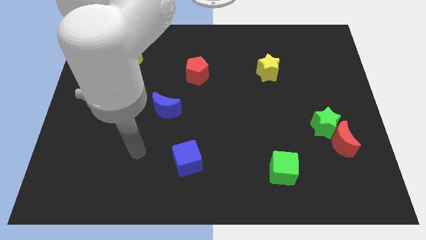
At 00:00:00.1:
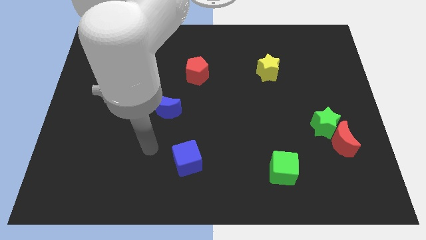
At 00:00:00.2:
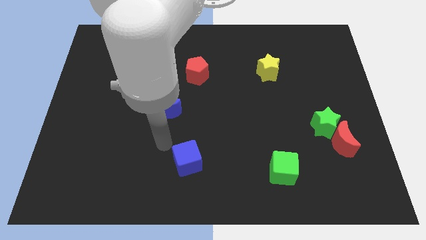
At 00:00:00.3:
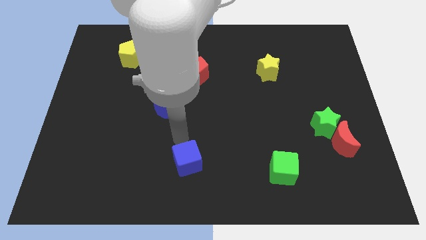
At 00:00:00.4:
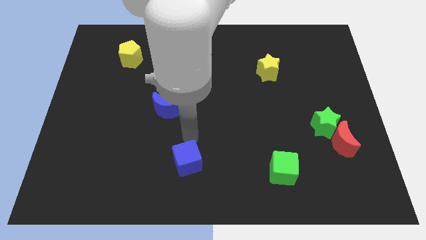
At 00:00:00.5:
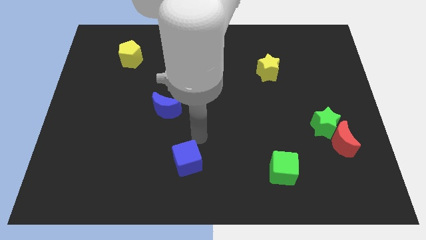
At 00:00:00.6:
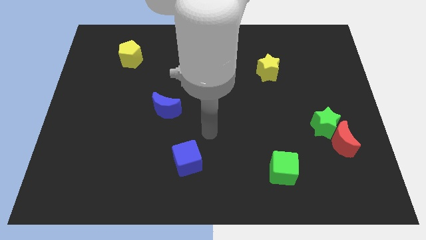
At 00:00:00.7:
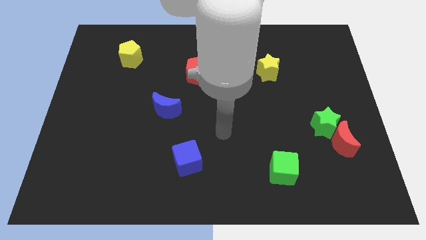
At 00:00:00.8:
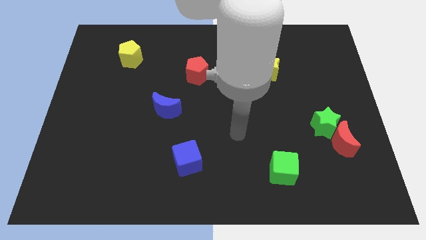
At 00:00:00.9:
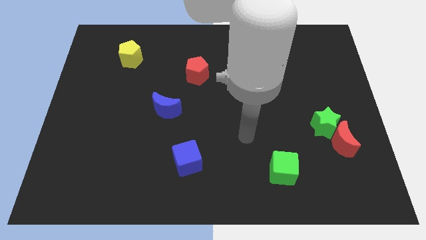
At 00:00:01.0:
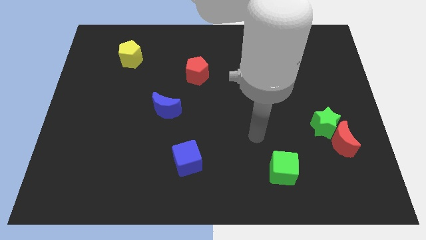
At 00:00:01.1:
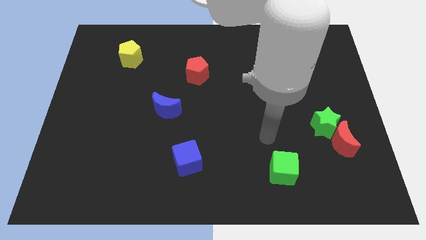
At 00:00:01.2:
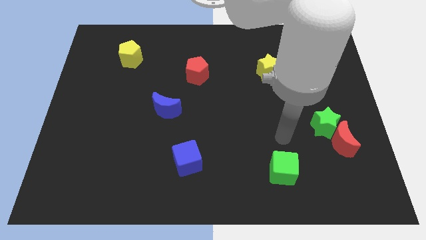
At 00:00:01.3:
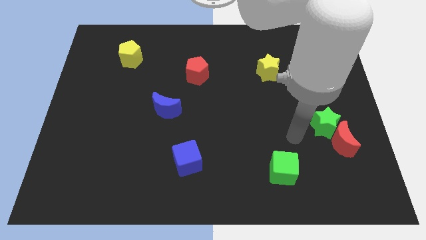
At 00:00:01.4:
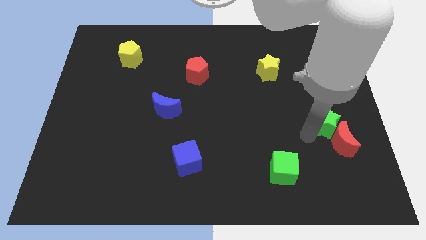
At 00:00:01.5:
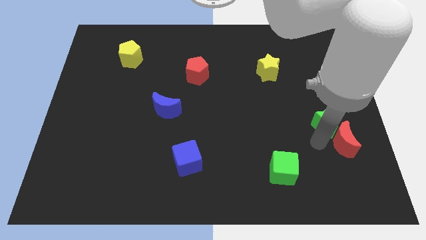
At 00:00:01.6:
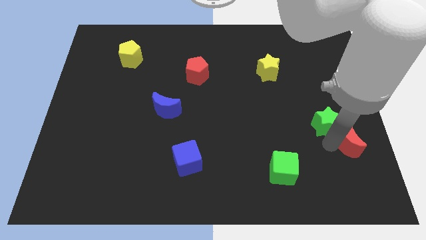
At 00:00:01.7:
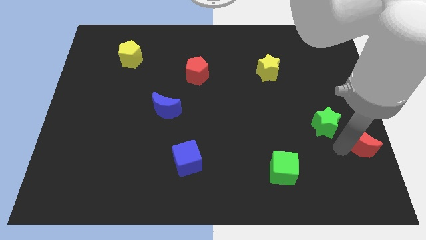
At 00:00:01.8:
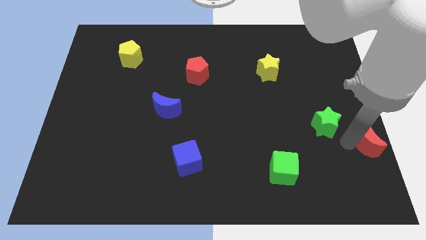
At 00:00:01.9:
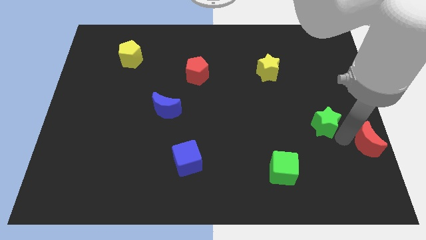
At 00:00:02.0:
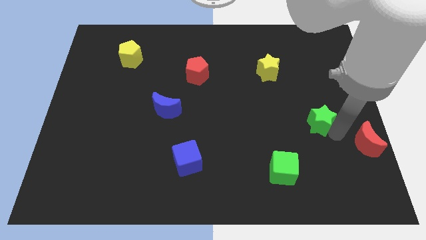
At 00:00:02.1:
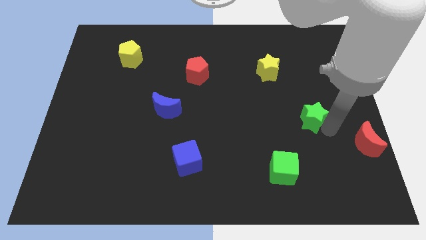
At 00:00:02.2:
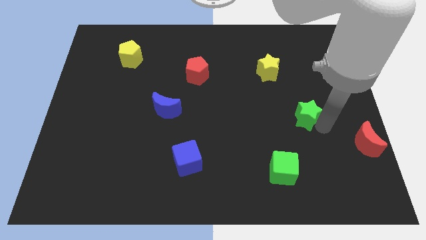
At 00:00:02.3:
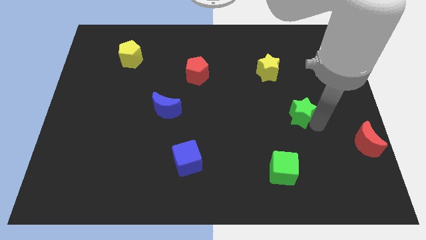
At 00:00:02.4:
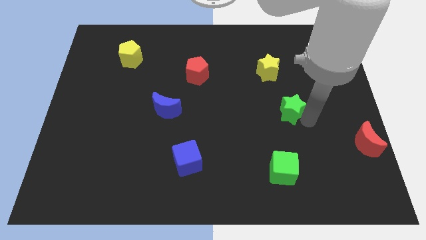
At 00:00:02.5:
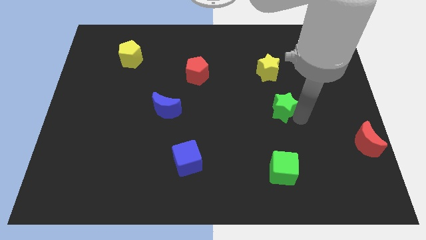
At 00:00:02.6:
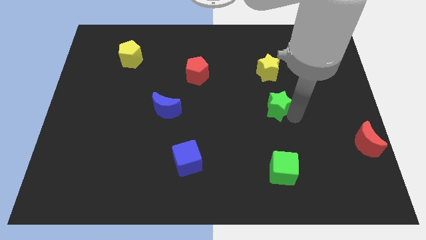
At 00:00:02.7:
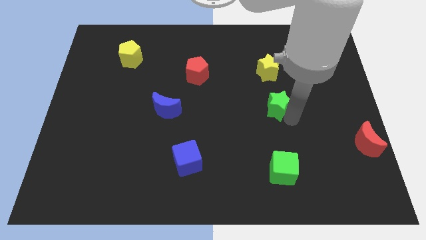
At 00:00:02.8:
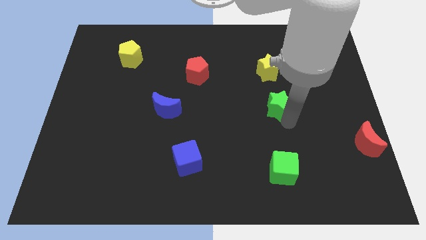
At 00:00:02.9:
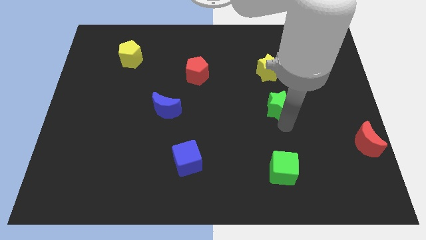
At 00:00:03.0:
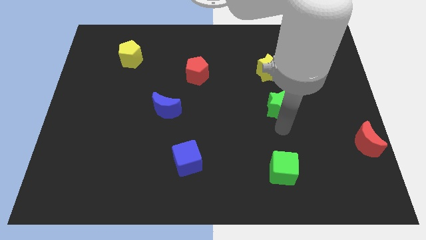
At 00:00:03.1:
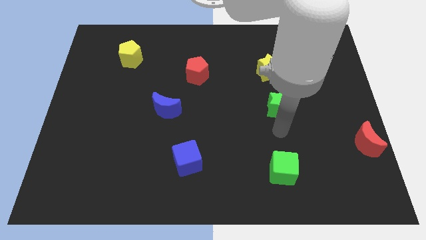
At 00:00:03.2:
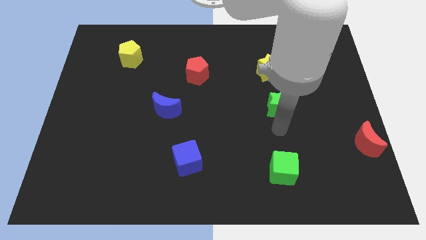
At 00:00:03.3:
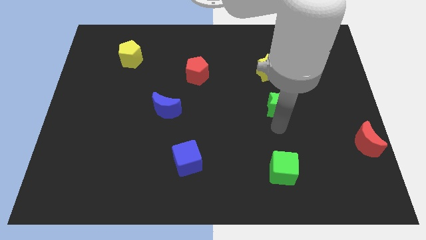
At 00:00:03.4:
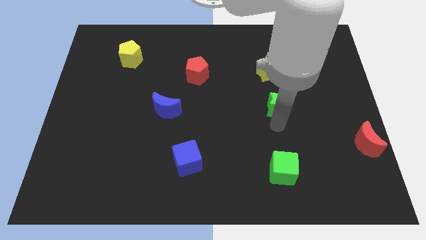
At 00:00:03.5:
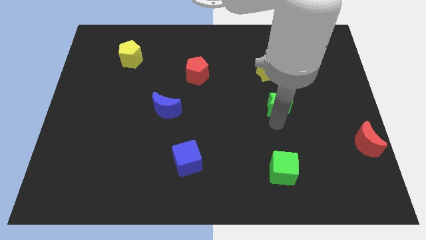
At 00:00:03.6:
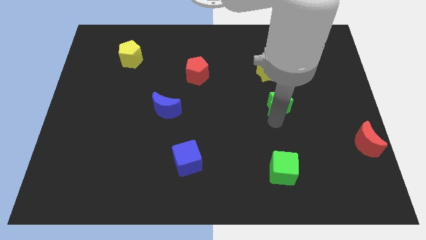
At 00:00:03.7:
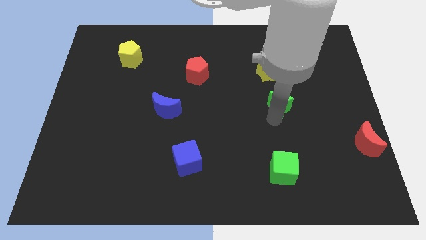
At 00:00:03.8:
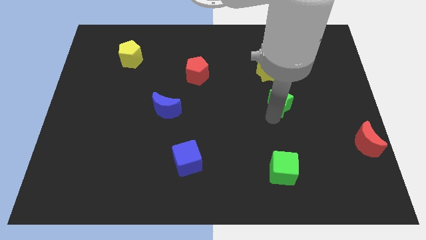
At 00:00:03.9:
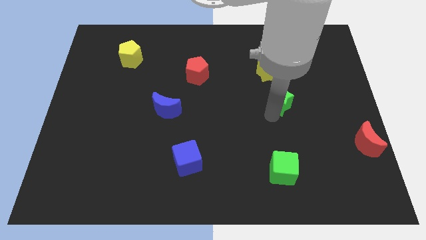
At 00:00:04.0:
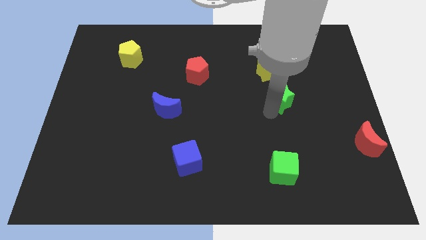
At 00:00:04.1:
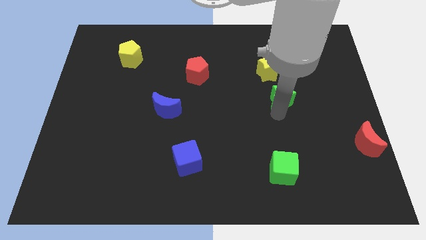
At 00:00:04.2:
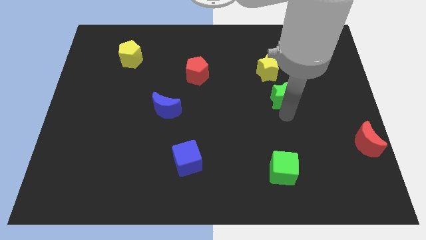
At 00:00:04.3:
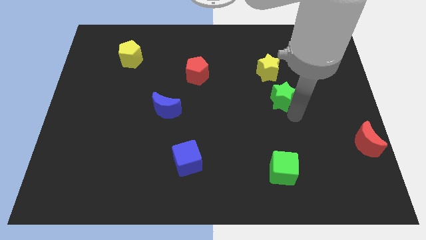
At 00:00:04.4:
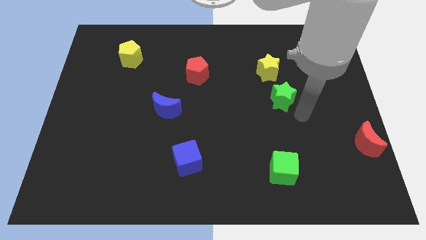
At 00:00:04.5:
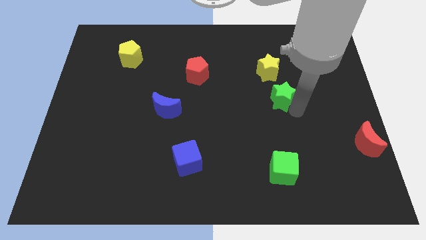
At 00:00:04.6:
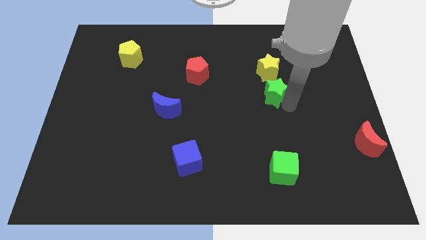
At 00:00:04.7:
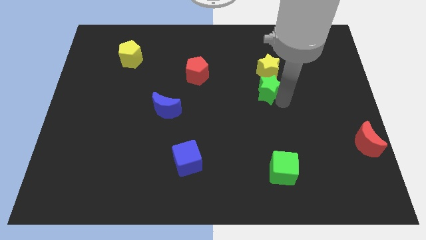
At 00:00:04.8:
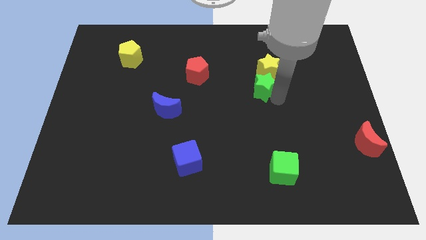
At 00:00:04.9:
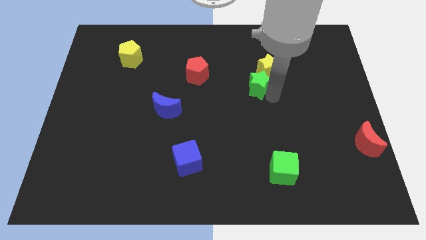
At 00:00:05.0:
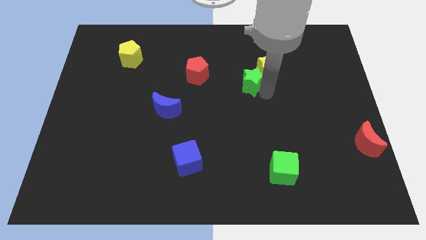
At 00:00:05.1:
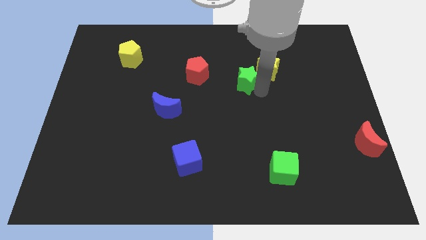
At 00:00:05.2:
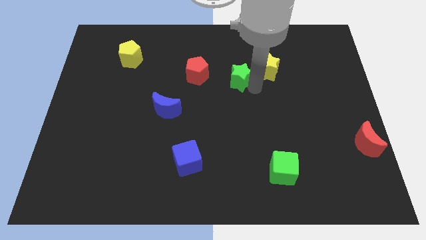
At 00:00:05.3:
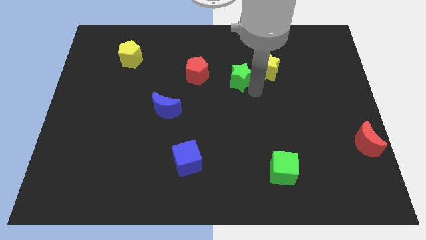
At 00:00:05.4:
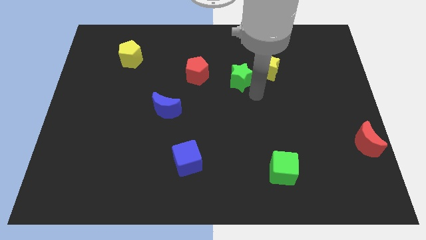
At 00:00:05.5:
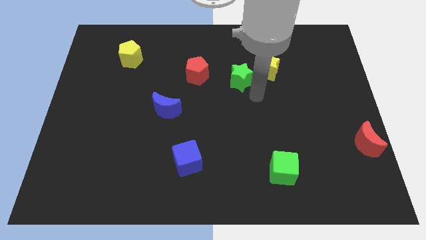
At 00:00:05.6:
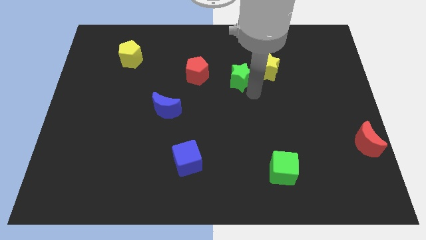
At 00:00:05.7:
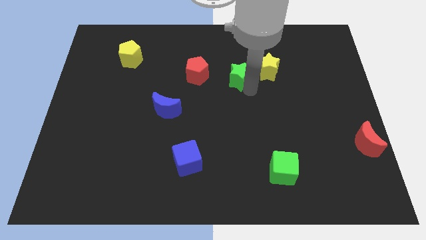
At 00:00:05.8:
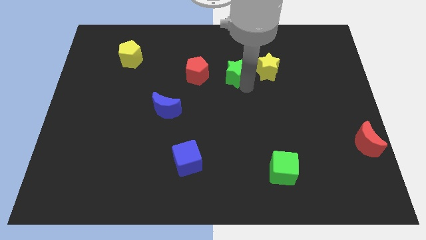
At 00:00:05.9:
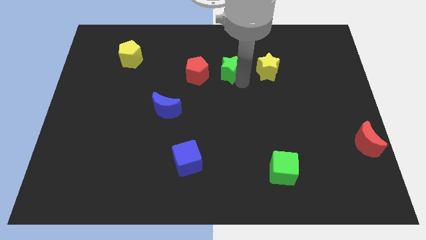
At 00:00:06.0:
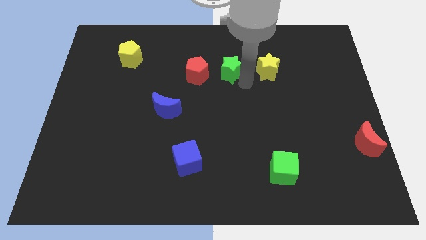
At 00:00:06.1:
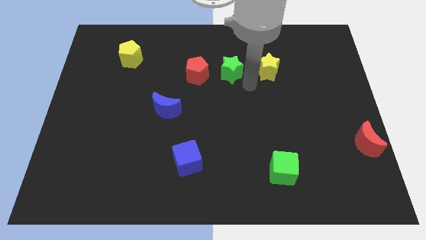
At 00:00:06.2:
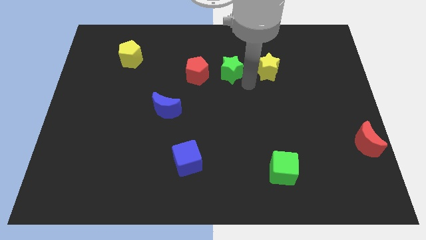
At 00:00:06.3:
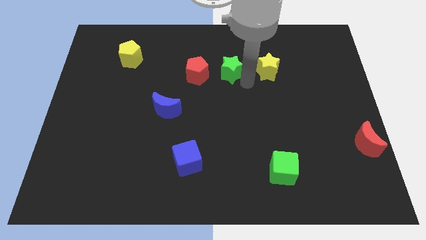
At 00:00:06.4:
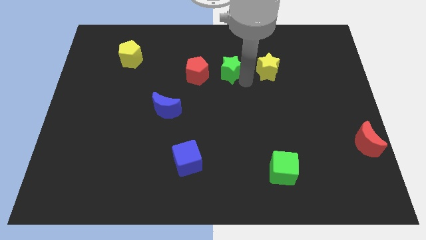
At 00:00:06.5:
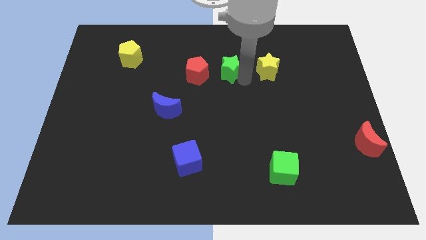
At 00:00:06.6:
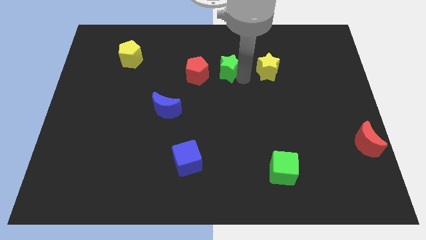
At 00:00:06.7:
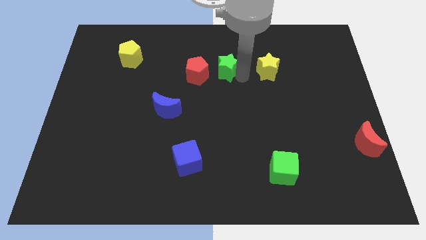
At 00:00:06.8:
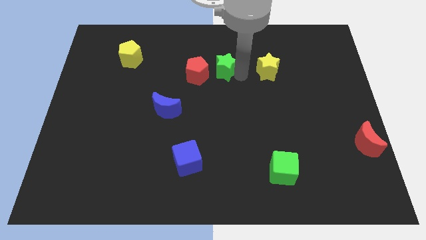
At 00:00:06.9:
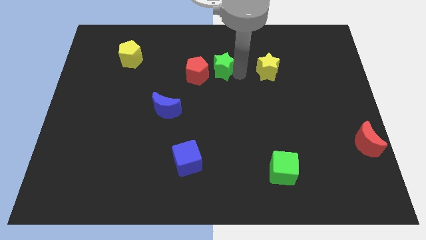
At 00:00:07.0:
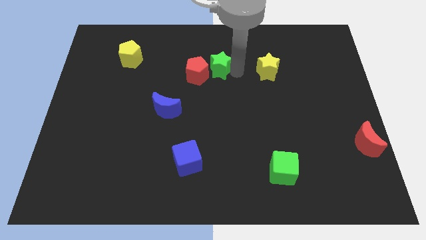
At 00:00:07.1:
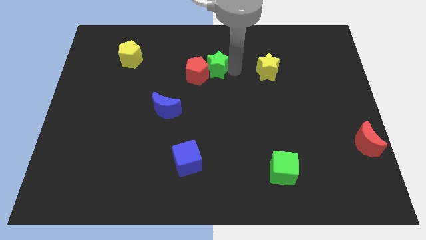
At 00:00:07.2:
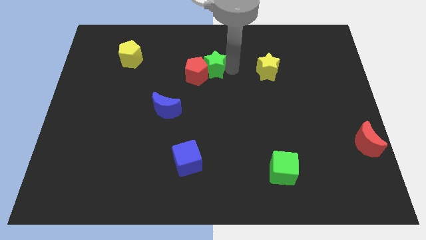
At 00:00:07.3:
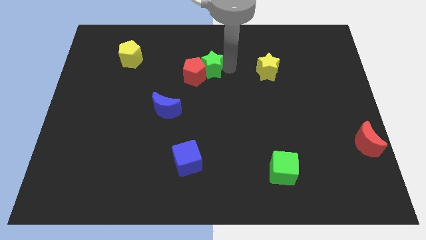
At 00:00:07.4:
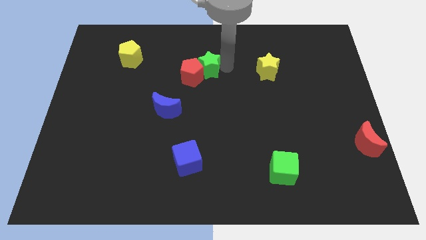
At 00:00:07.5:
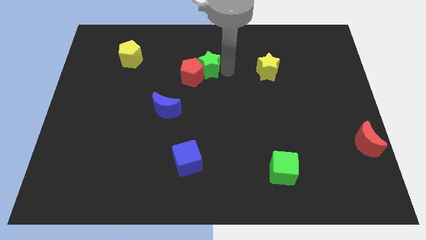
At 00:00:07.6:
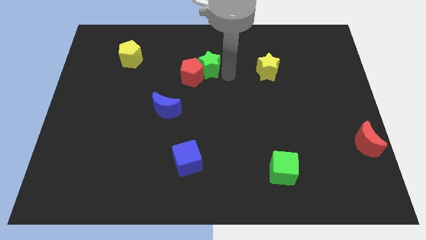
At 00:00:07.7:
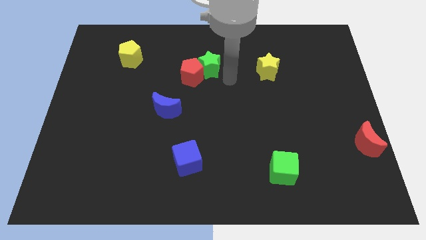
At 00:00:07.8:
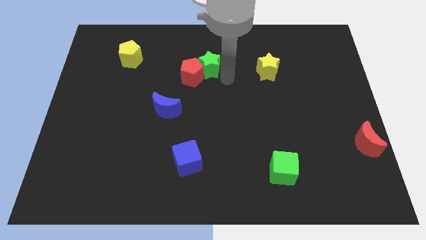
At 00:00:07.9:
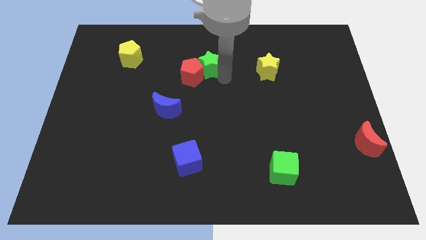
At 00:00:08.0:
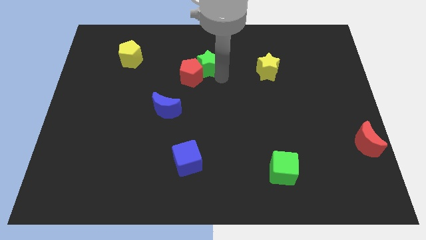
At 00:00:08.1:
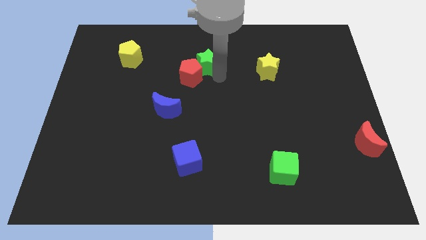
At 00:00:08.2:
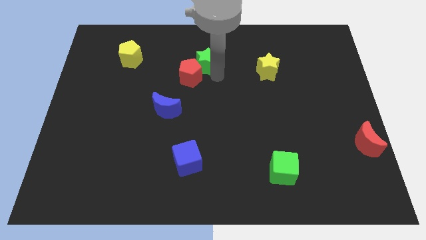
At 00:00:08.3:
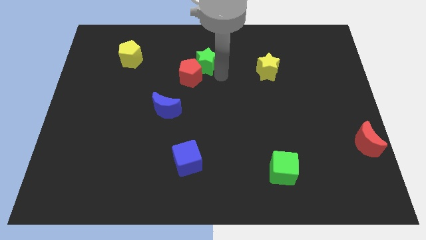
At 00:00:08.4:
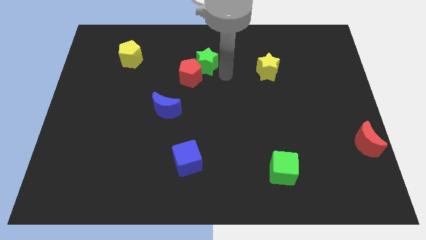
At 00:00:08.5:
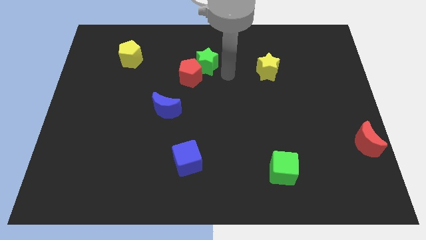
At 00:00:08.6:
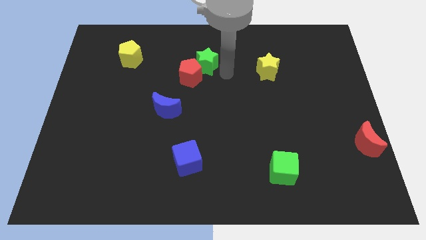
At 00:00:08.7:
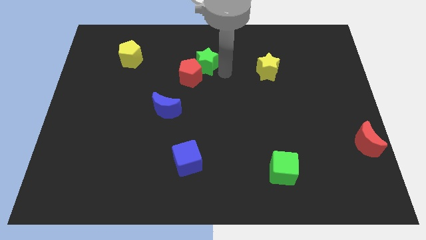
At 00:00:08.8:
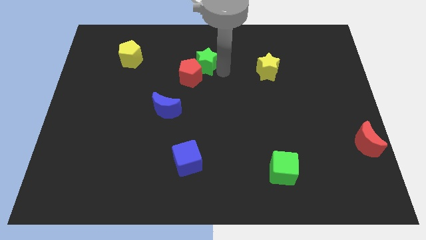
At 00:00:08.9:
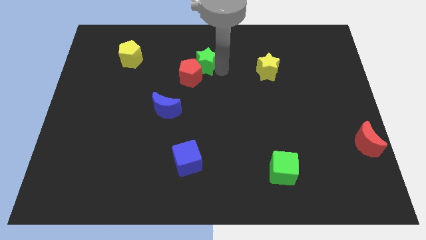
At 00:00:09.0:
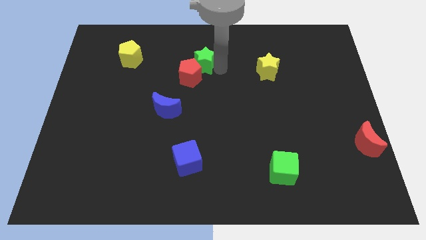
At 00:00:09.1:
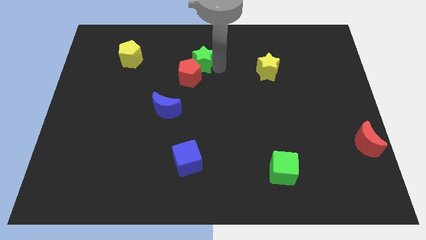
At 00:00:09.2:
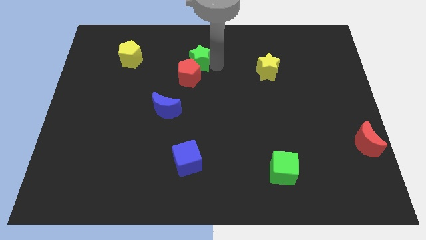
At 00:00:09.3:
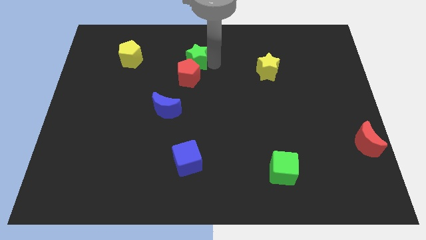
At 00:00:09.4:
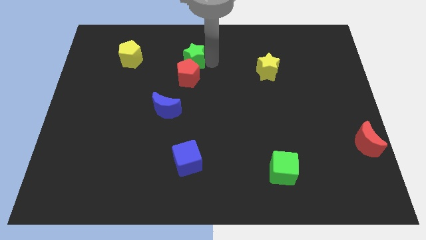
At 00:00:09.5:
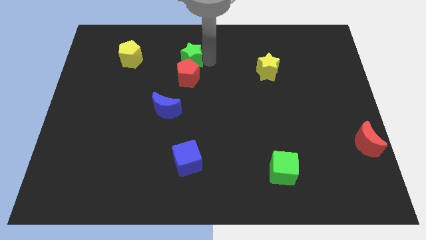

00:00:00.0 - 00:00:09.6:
put the green star right of the yellow pentagon
